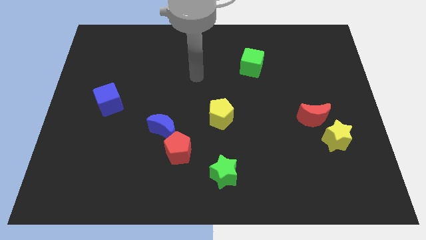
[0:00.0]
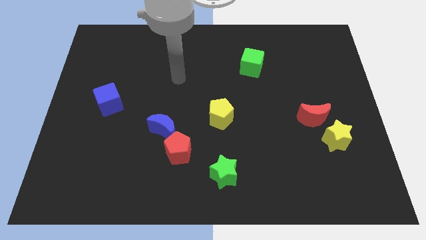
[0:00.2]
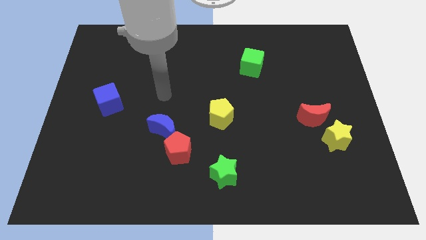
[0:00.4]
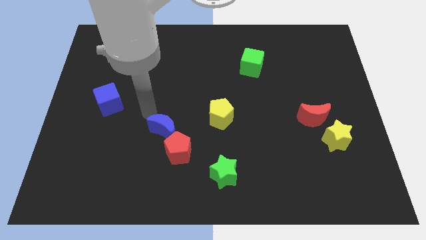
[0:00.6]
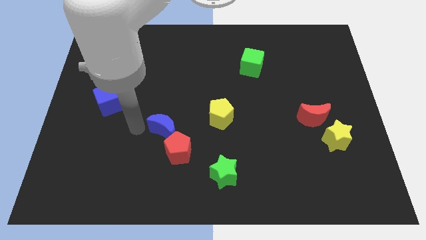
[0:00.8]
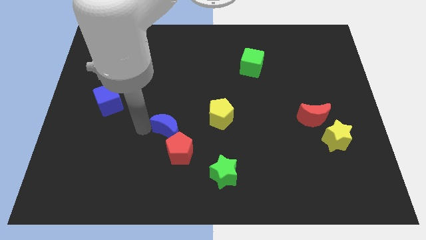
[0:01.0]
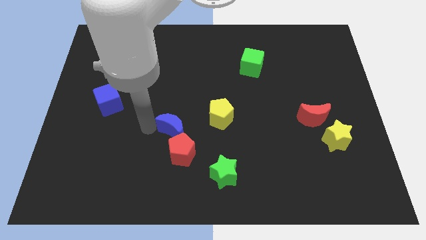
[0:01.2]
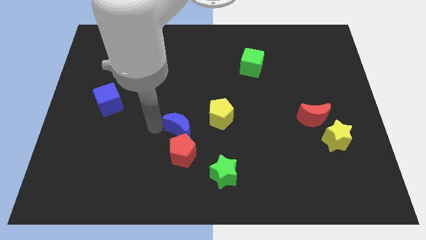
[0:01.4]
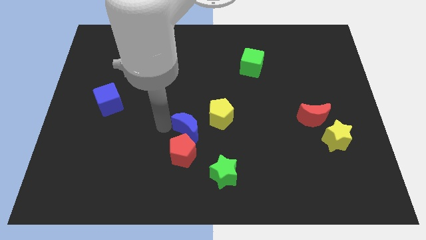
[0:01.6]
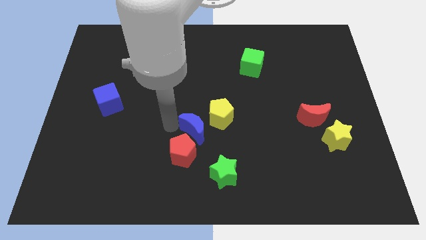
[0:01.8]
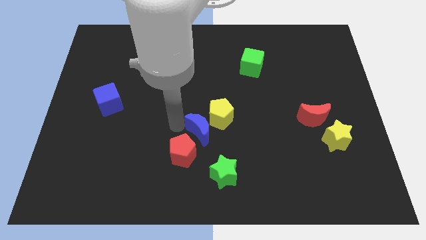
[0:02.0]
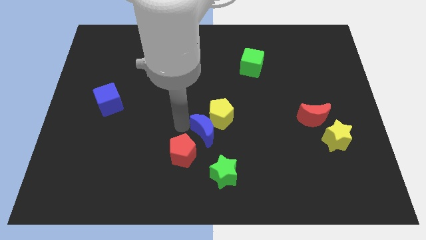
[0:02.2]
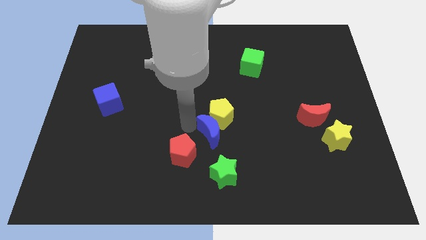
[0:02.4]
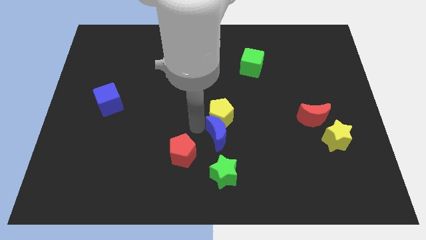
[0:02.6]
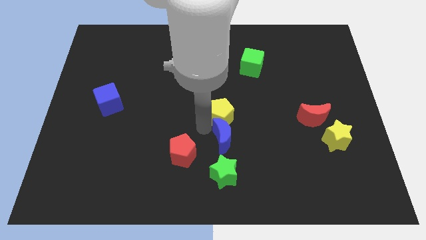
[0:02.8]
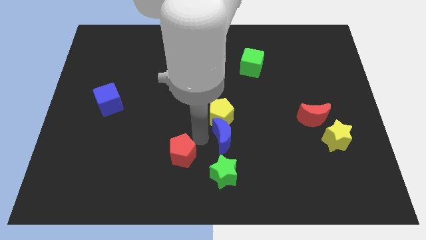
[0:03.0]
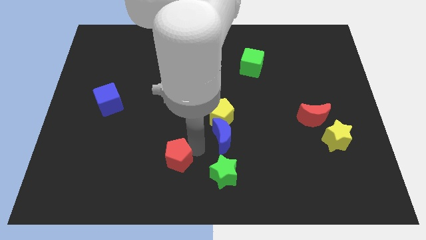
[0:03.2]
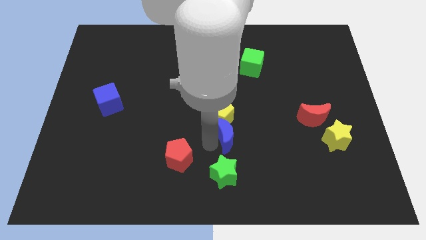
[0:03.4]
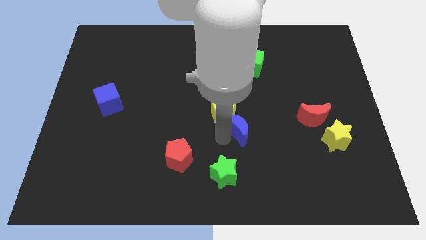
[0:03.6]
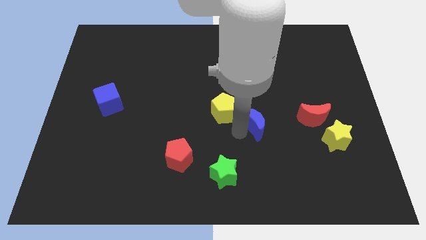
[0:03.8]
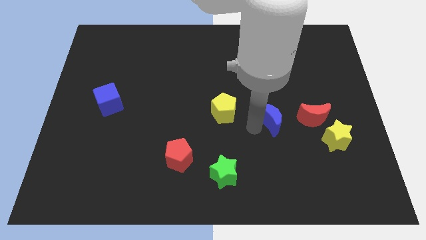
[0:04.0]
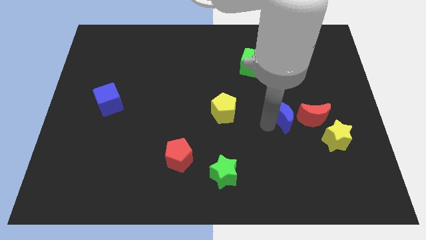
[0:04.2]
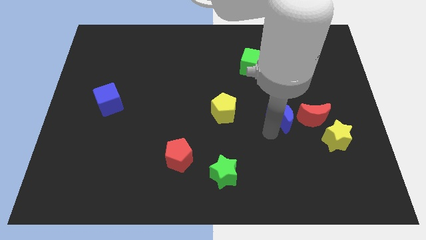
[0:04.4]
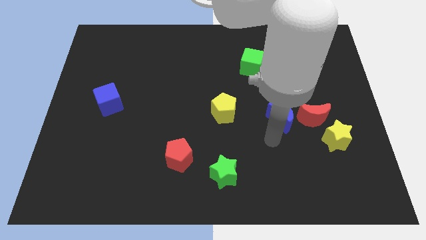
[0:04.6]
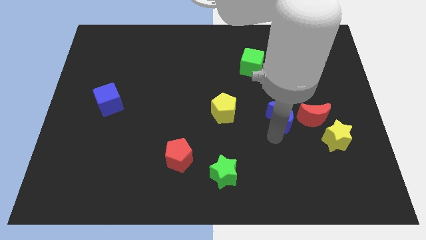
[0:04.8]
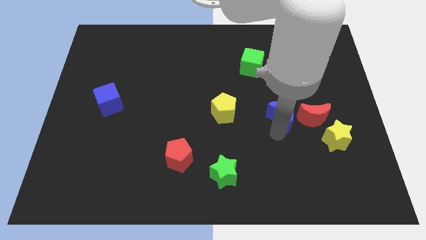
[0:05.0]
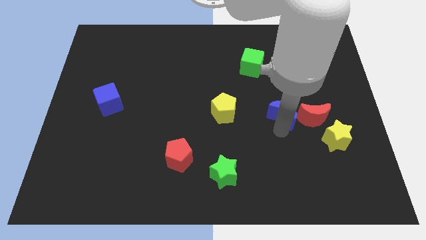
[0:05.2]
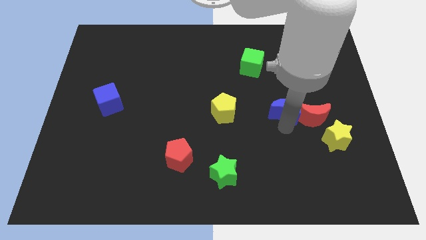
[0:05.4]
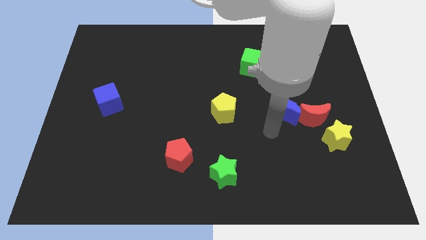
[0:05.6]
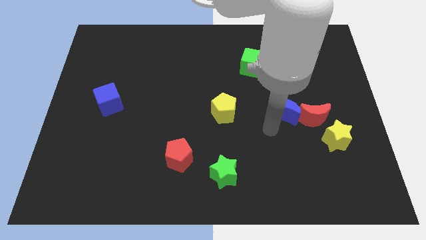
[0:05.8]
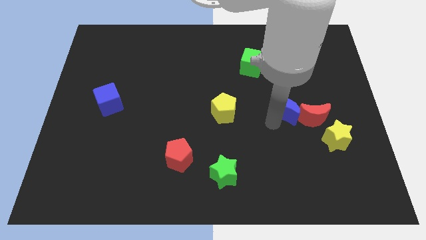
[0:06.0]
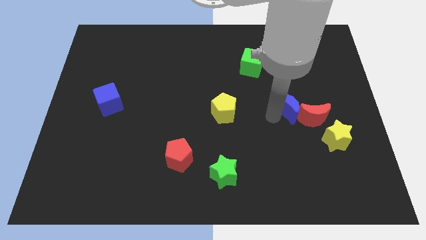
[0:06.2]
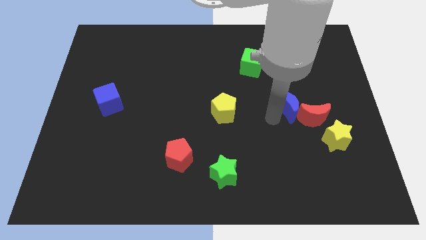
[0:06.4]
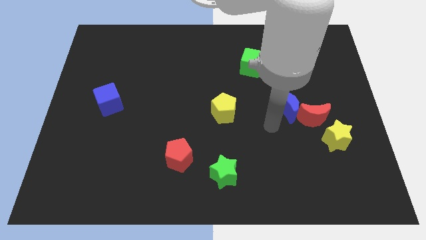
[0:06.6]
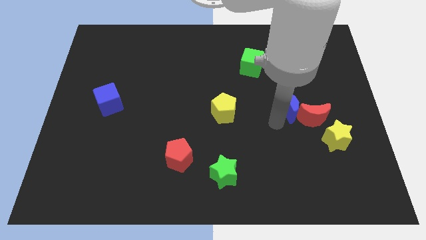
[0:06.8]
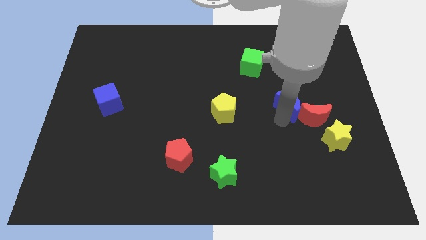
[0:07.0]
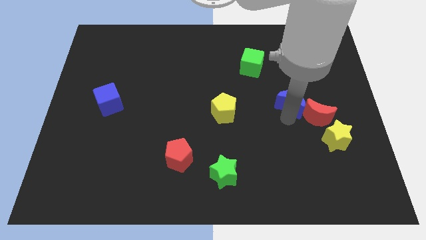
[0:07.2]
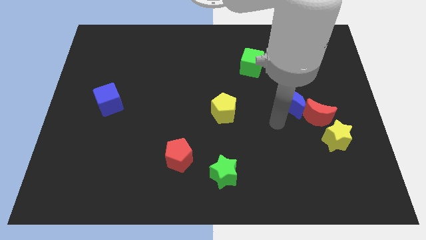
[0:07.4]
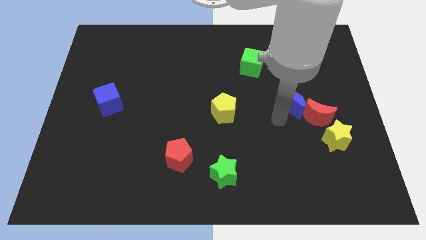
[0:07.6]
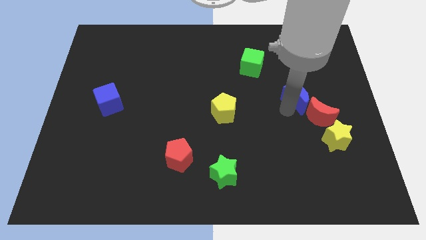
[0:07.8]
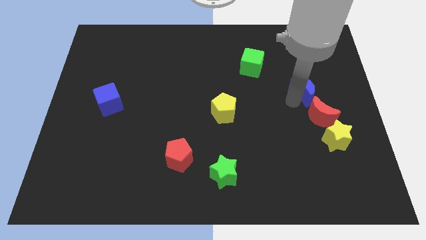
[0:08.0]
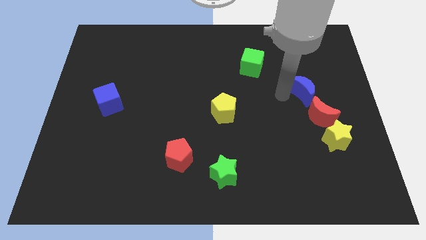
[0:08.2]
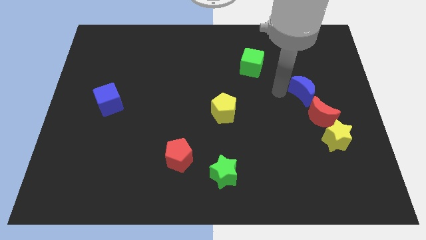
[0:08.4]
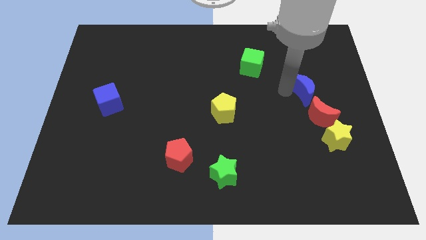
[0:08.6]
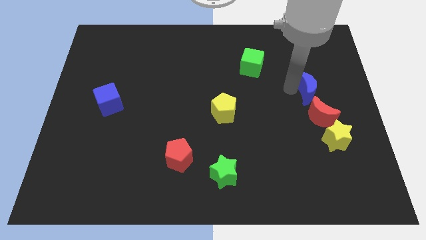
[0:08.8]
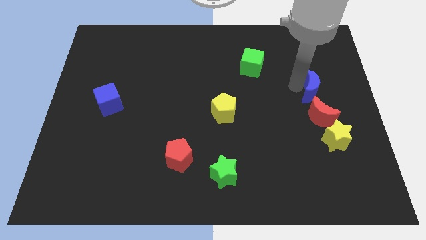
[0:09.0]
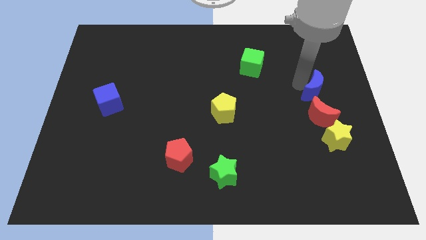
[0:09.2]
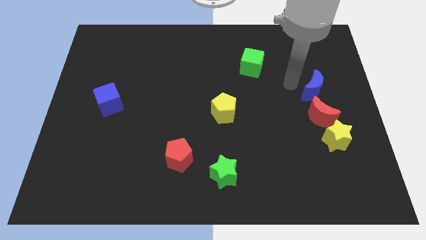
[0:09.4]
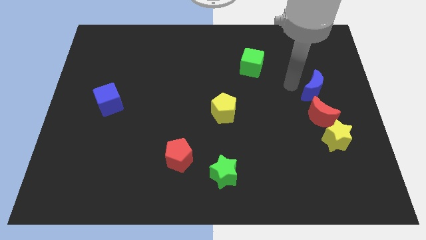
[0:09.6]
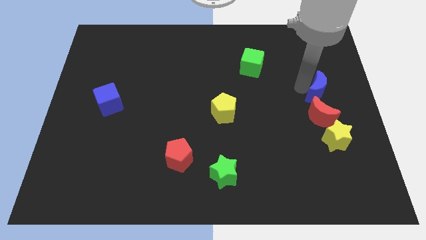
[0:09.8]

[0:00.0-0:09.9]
push the blue moon to the right side of the board

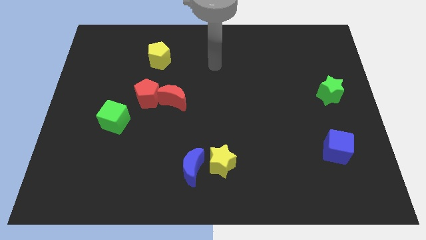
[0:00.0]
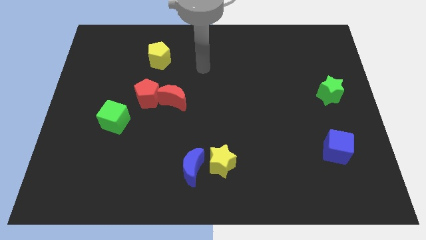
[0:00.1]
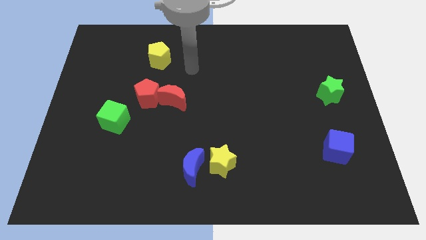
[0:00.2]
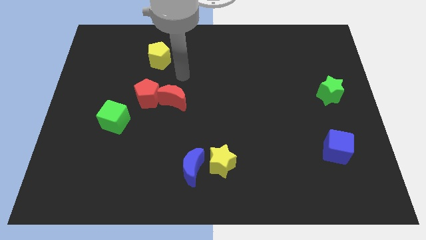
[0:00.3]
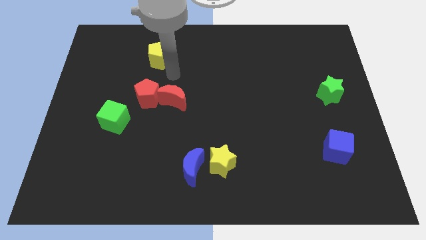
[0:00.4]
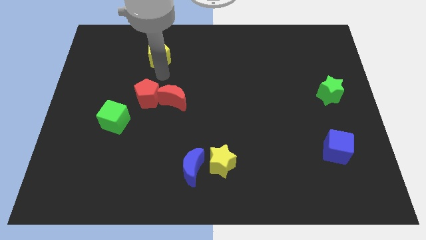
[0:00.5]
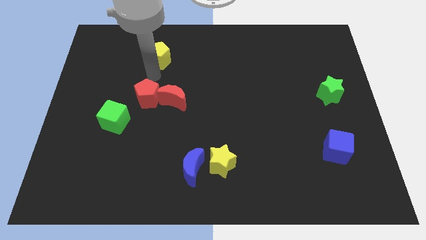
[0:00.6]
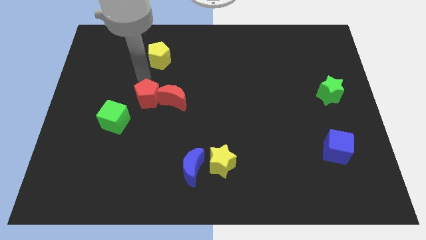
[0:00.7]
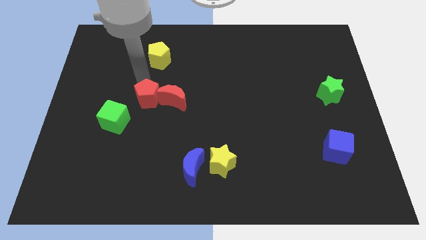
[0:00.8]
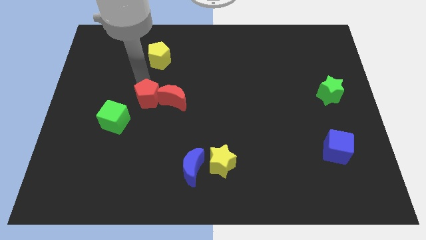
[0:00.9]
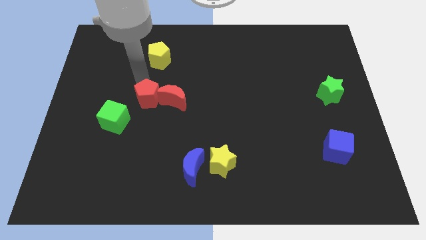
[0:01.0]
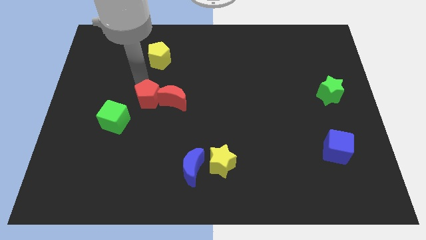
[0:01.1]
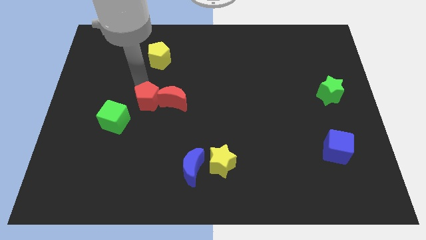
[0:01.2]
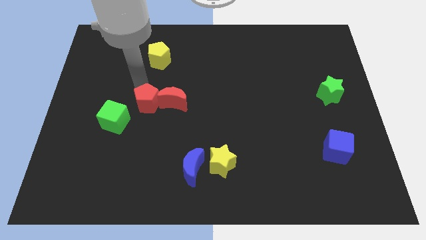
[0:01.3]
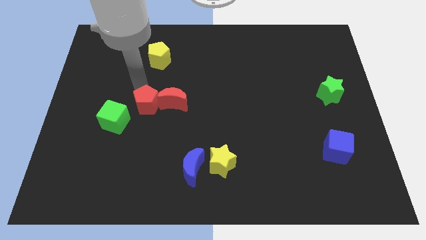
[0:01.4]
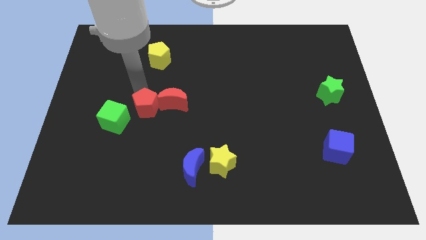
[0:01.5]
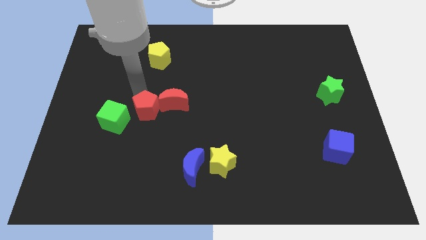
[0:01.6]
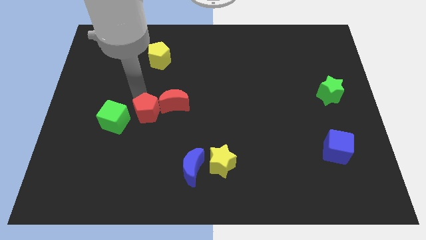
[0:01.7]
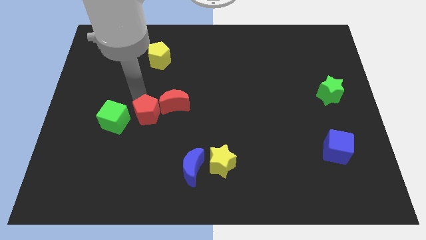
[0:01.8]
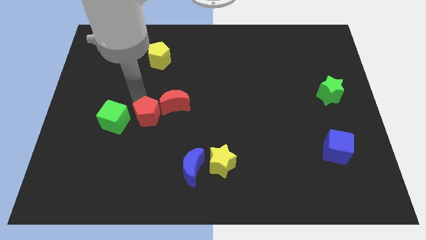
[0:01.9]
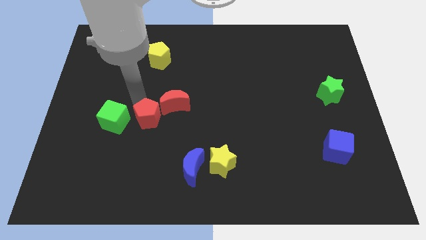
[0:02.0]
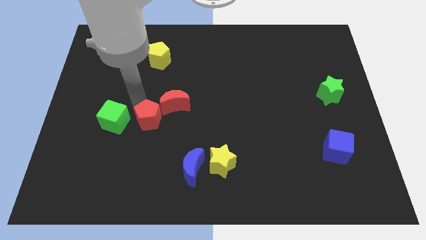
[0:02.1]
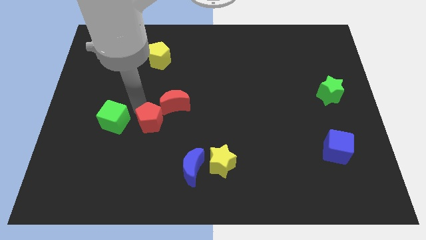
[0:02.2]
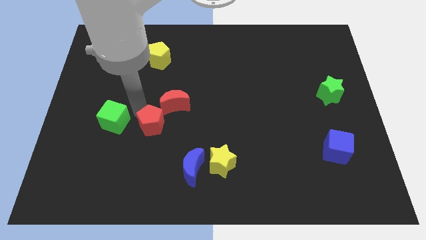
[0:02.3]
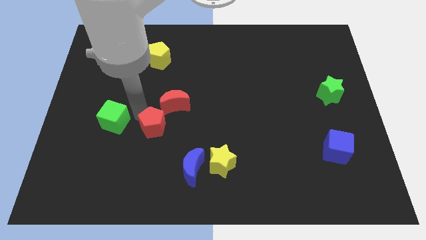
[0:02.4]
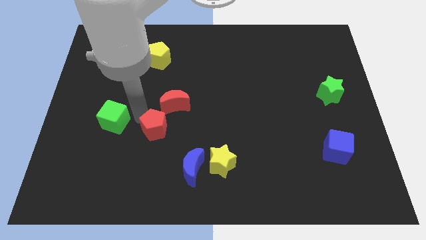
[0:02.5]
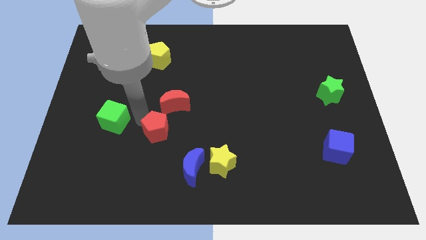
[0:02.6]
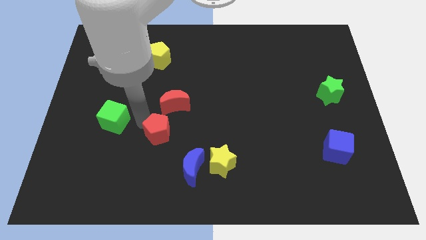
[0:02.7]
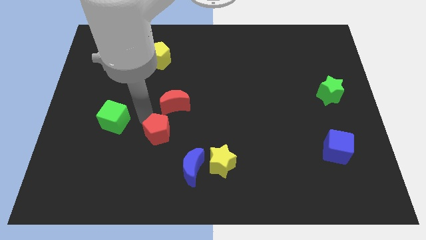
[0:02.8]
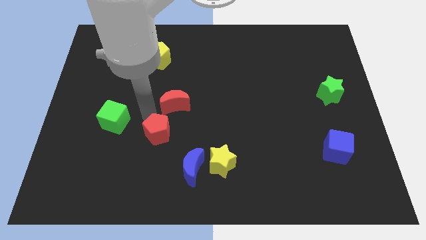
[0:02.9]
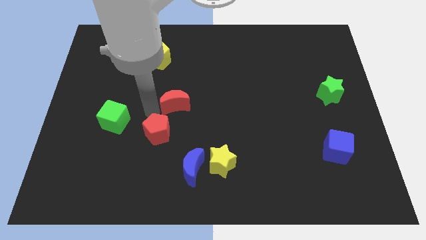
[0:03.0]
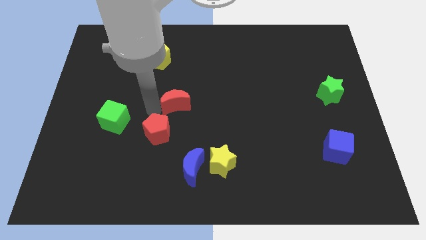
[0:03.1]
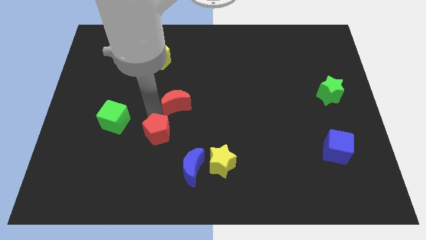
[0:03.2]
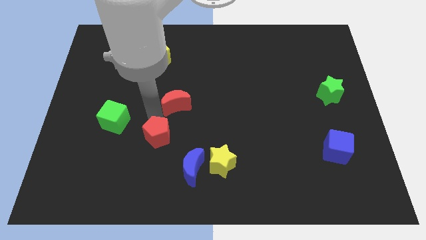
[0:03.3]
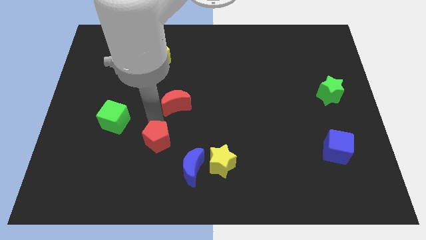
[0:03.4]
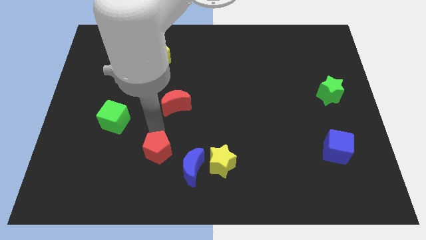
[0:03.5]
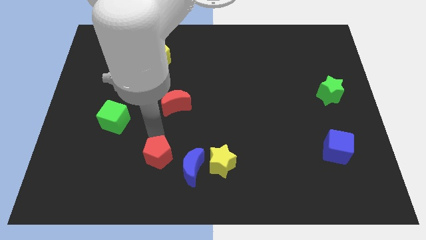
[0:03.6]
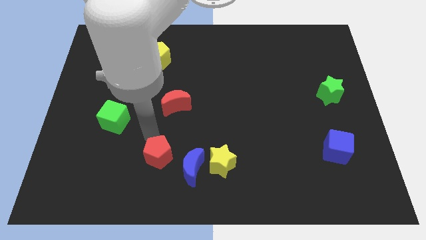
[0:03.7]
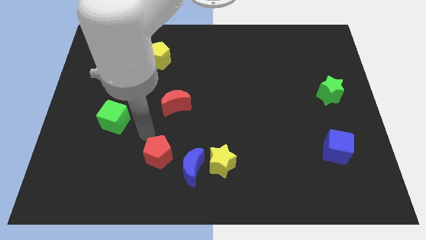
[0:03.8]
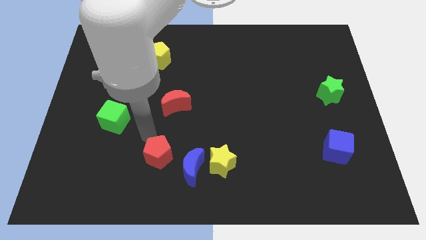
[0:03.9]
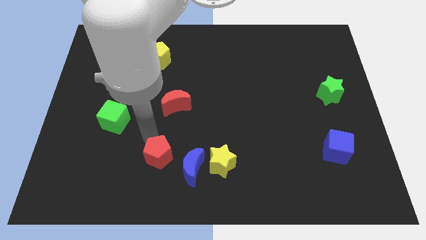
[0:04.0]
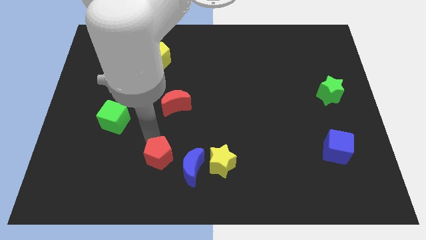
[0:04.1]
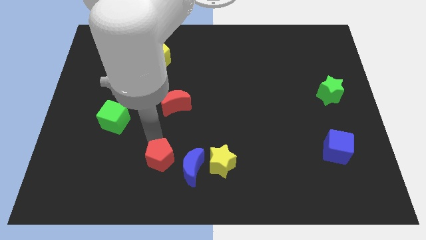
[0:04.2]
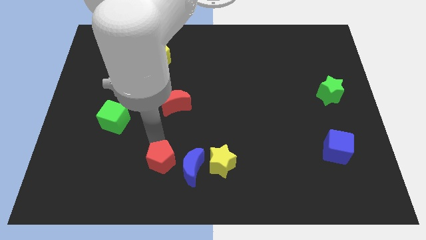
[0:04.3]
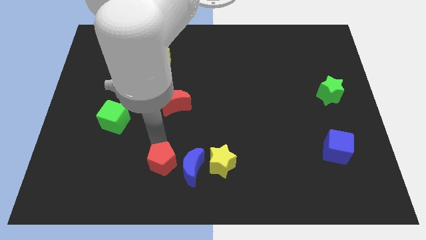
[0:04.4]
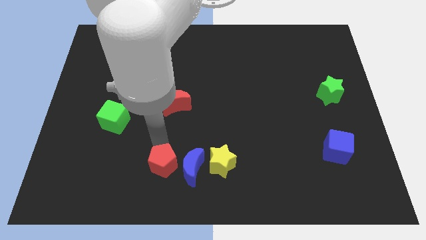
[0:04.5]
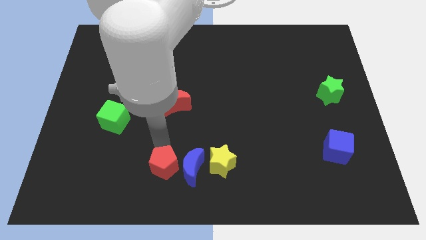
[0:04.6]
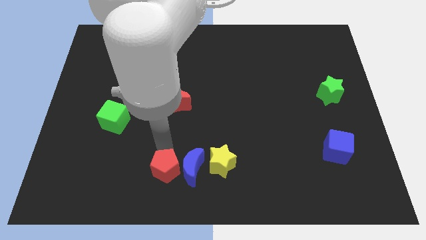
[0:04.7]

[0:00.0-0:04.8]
move the red pentagon to the bottom side
